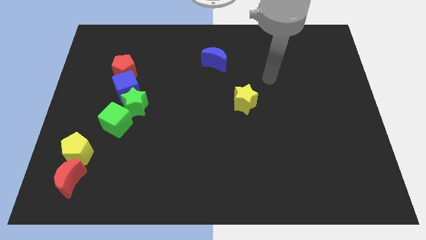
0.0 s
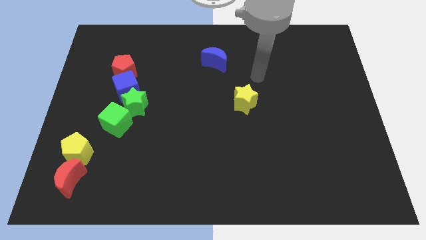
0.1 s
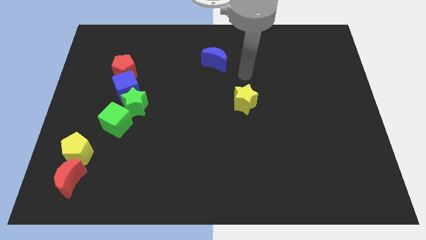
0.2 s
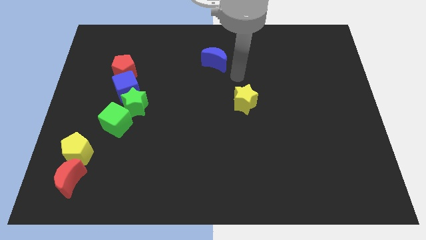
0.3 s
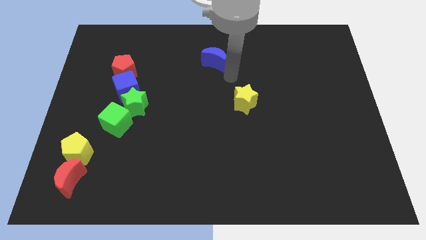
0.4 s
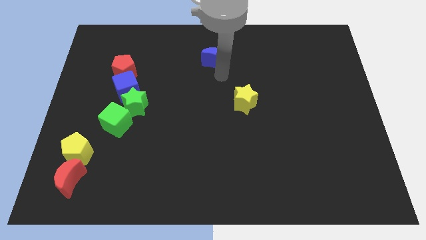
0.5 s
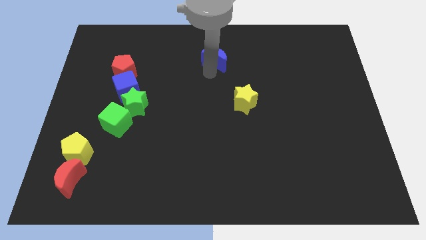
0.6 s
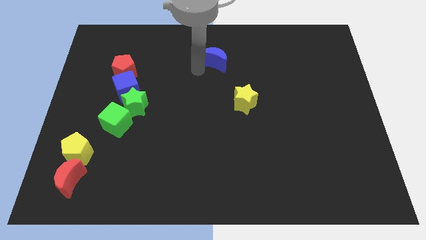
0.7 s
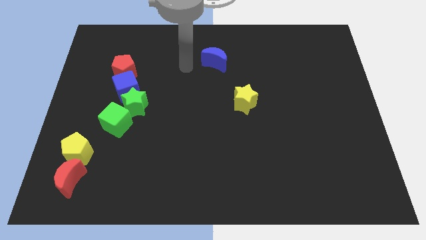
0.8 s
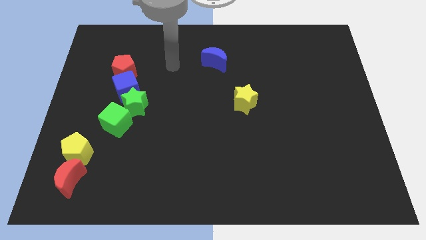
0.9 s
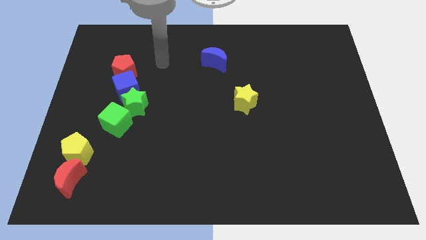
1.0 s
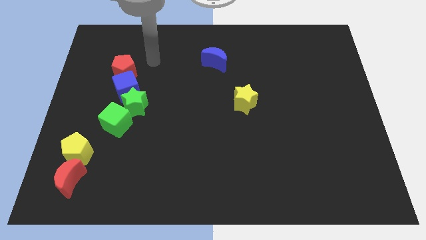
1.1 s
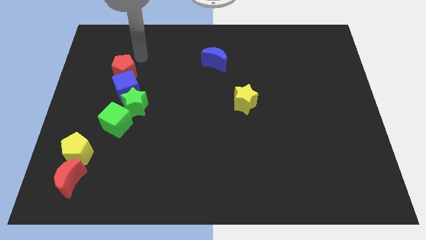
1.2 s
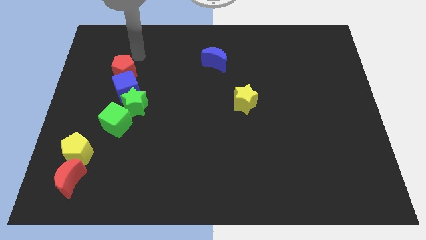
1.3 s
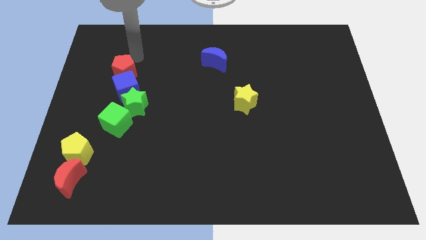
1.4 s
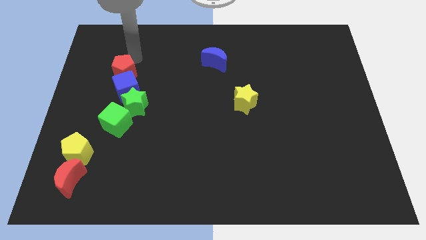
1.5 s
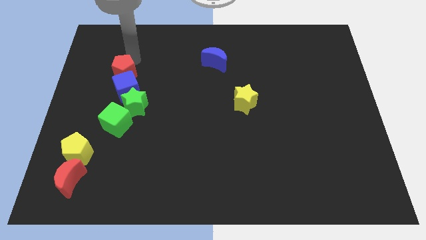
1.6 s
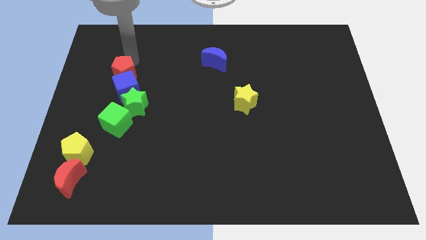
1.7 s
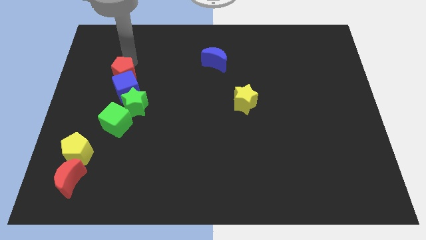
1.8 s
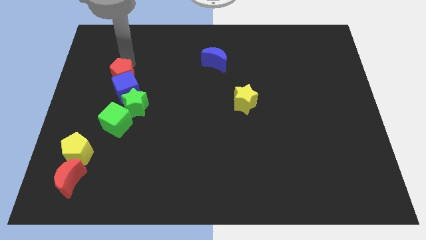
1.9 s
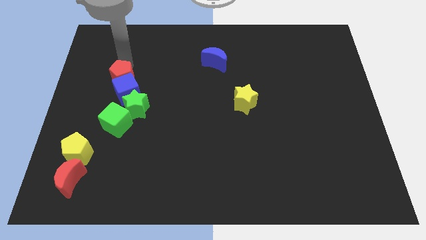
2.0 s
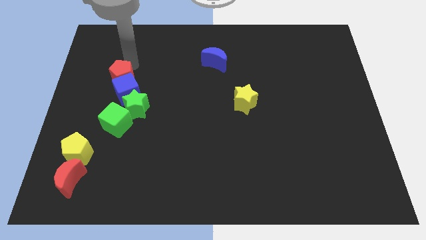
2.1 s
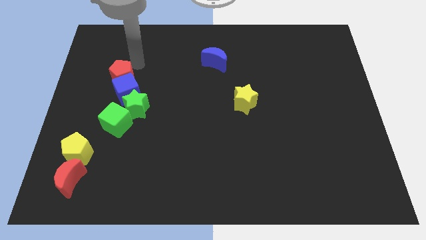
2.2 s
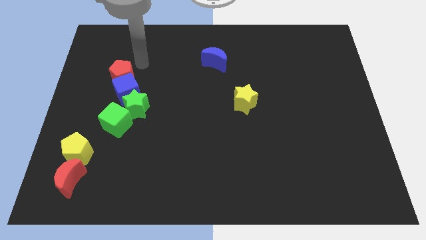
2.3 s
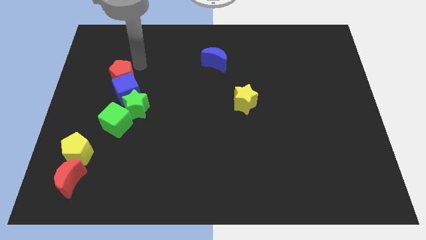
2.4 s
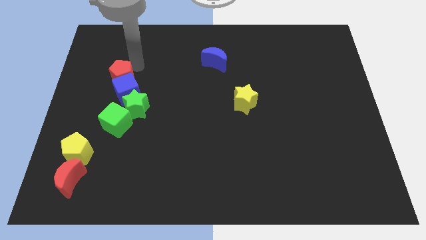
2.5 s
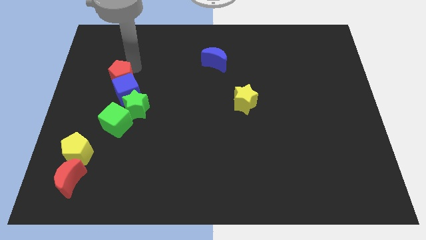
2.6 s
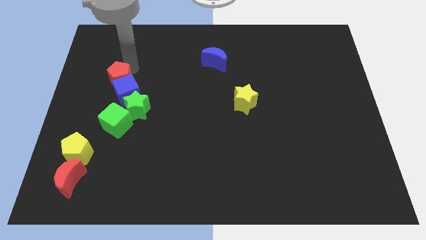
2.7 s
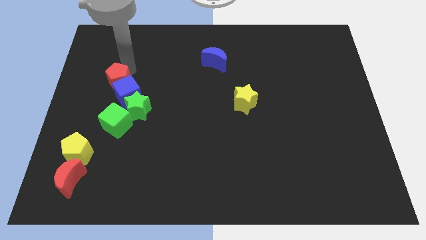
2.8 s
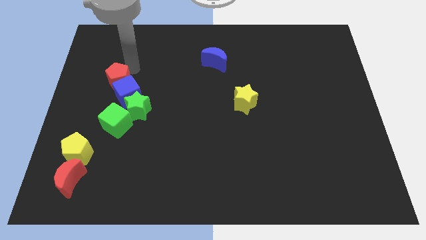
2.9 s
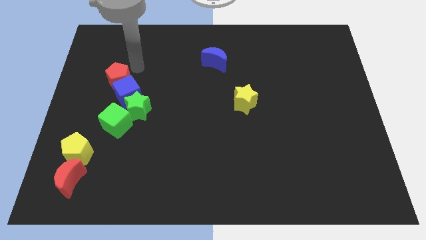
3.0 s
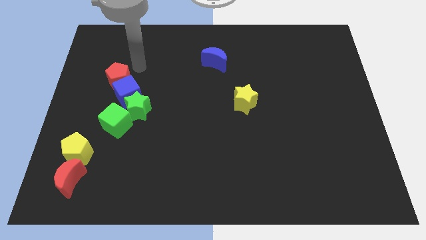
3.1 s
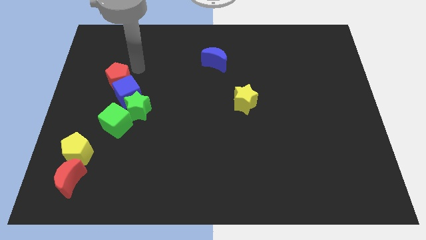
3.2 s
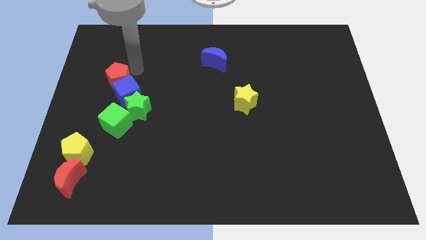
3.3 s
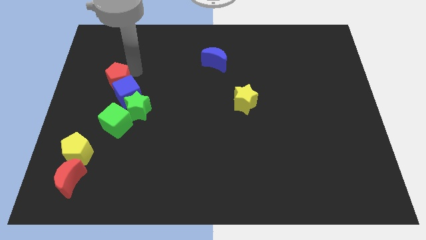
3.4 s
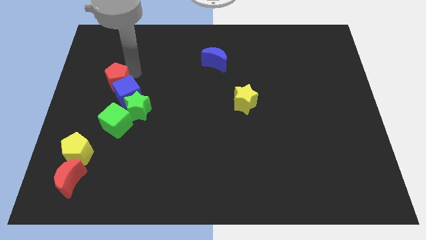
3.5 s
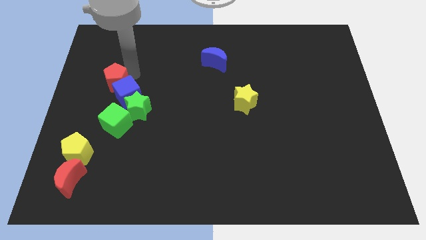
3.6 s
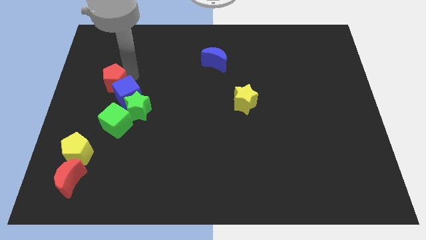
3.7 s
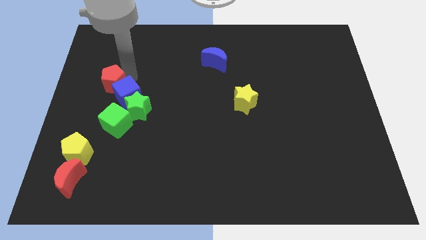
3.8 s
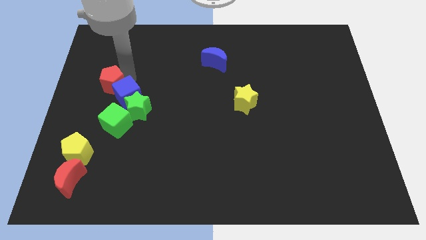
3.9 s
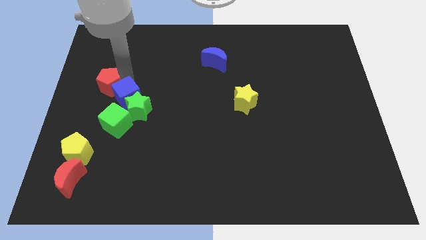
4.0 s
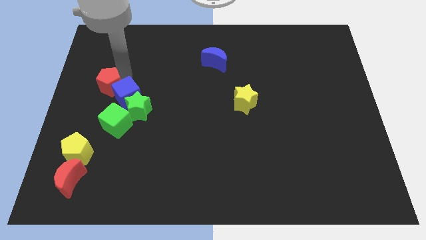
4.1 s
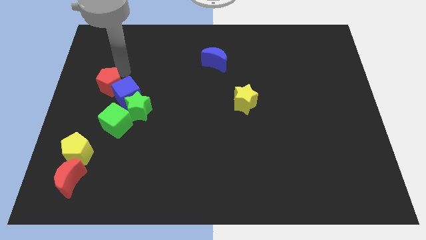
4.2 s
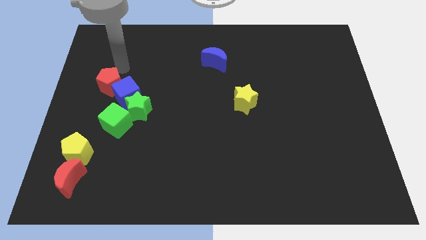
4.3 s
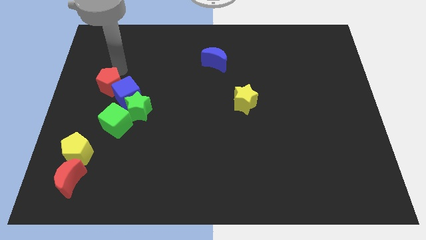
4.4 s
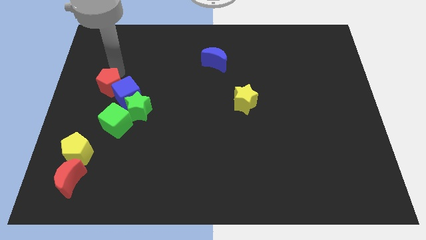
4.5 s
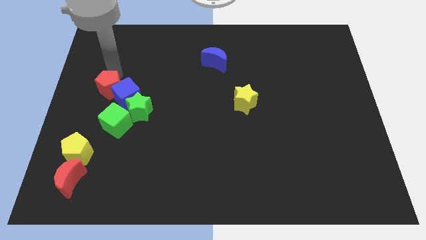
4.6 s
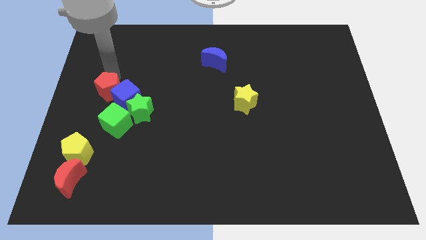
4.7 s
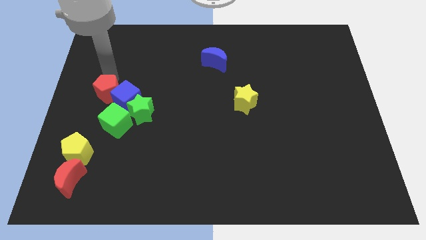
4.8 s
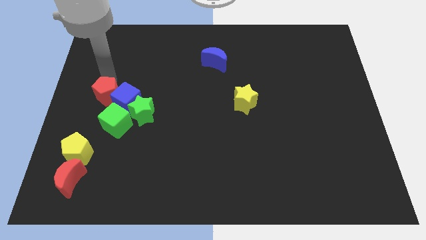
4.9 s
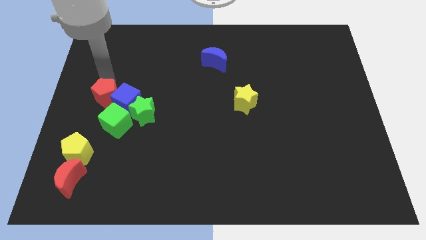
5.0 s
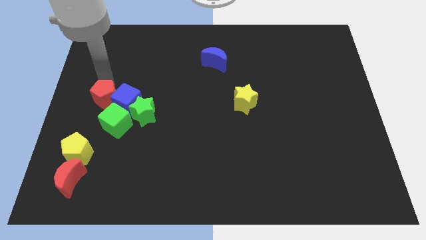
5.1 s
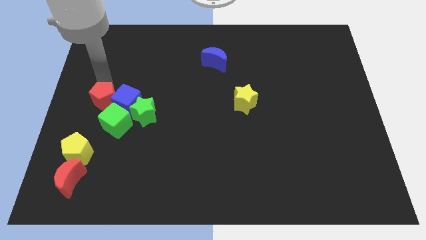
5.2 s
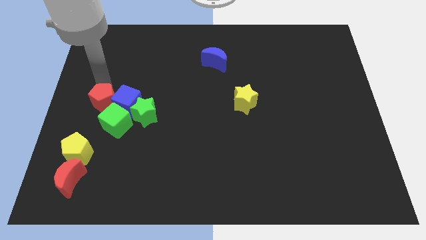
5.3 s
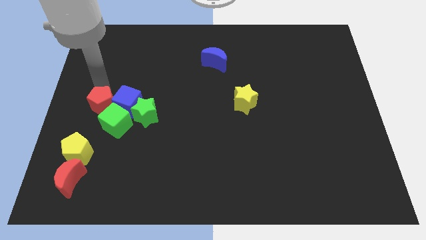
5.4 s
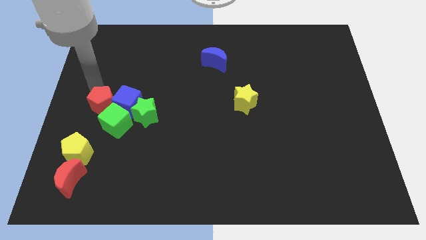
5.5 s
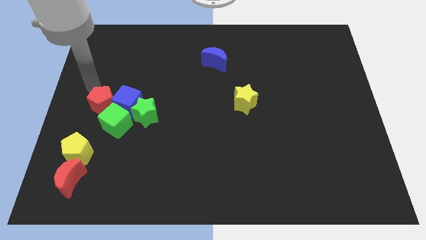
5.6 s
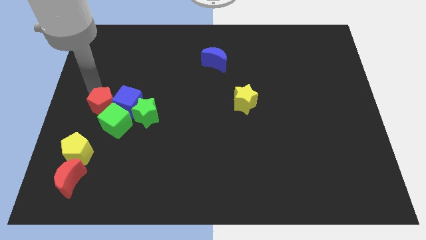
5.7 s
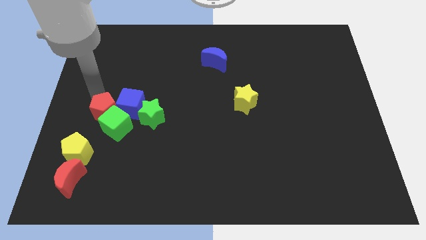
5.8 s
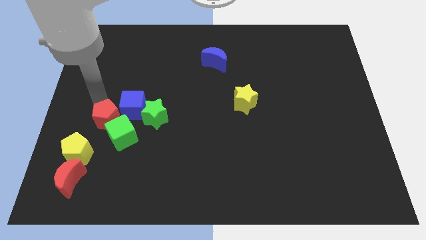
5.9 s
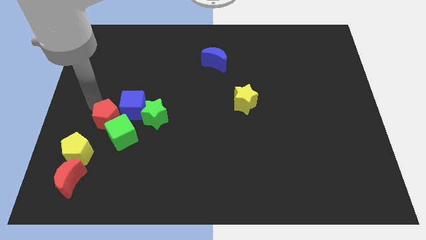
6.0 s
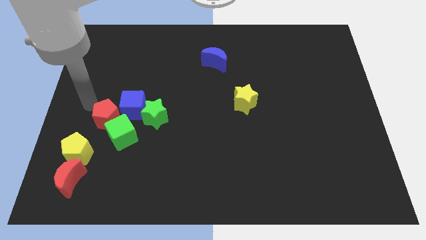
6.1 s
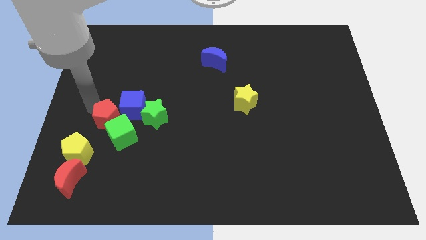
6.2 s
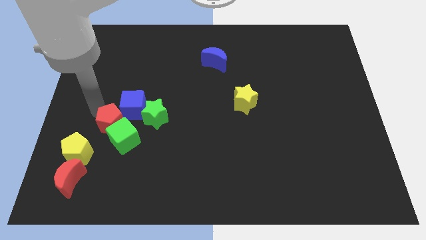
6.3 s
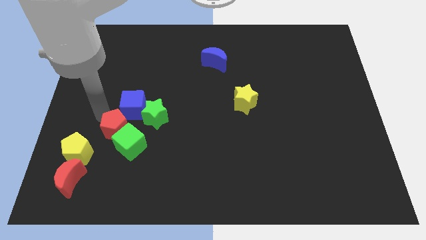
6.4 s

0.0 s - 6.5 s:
move the red pentagon diagonally down and to the left of the green star
